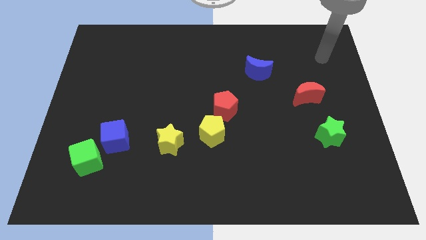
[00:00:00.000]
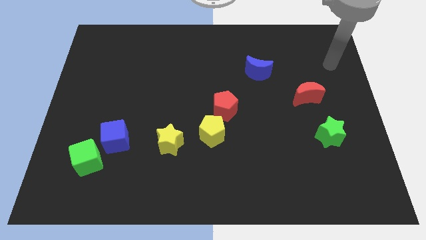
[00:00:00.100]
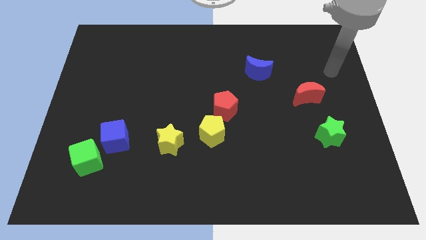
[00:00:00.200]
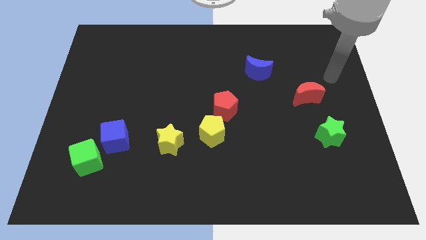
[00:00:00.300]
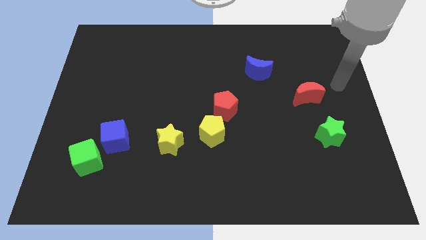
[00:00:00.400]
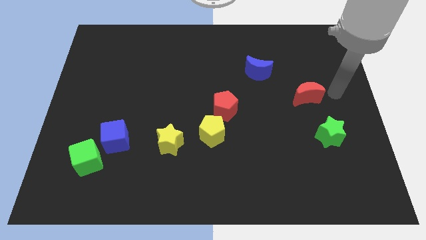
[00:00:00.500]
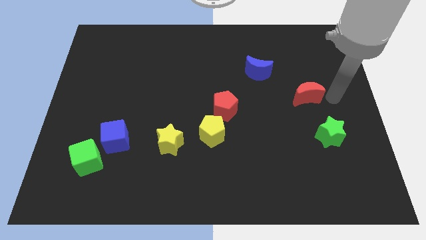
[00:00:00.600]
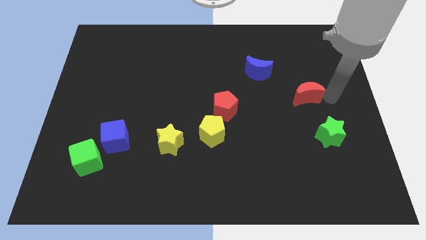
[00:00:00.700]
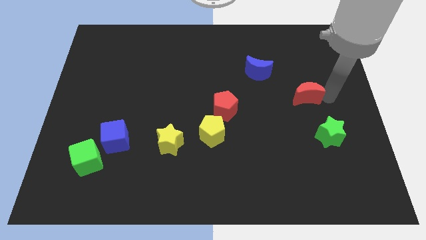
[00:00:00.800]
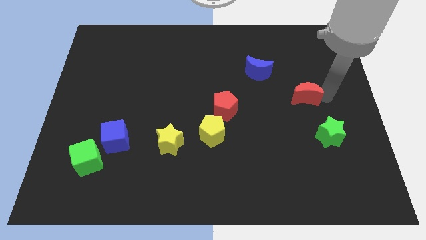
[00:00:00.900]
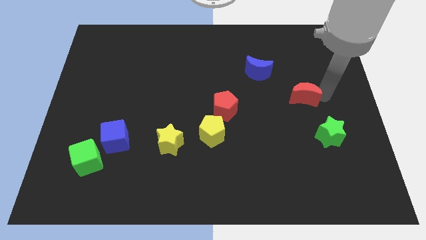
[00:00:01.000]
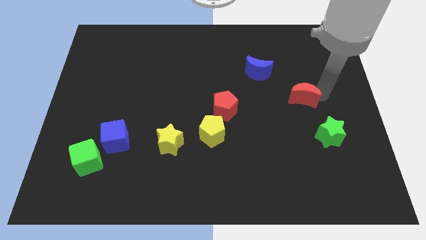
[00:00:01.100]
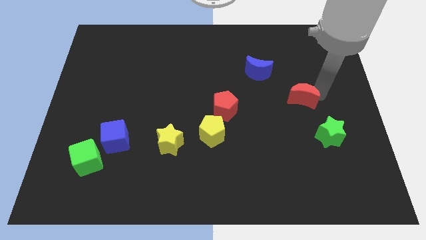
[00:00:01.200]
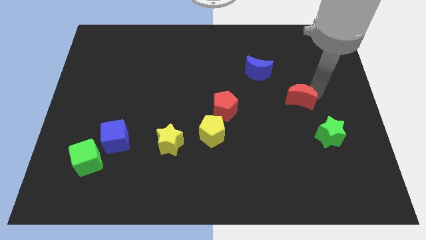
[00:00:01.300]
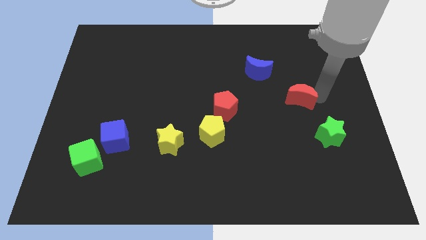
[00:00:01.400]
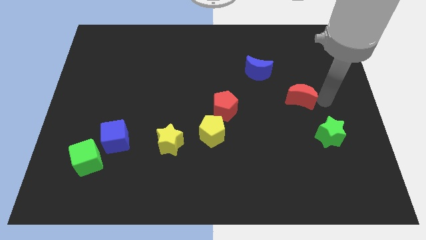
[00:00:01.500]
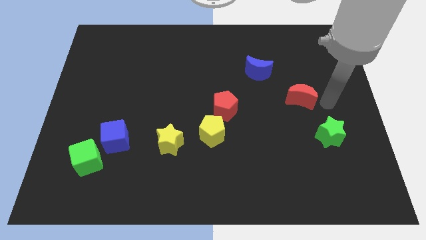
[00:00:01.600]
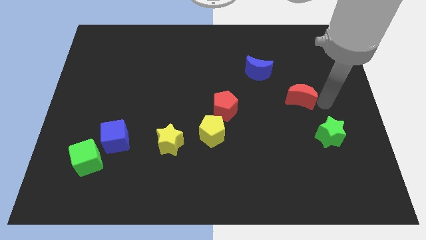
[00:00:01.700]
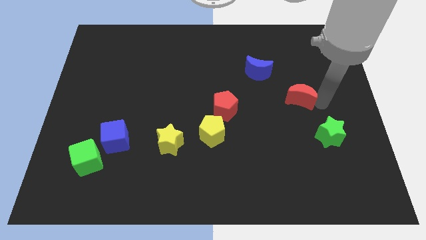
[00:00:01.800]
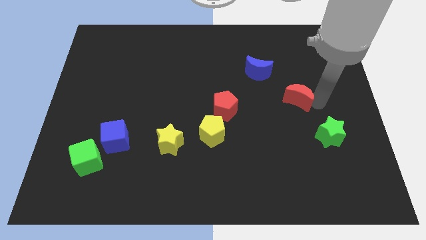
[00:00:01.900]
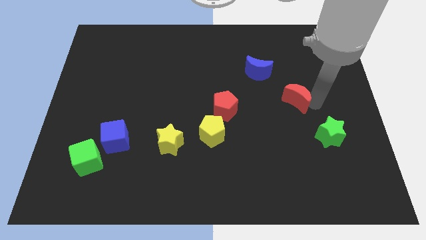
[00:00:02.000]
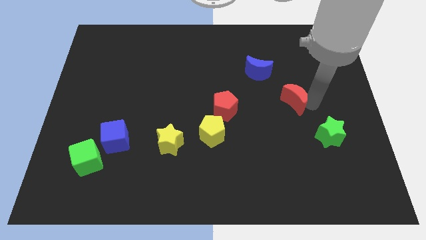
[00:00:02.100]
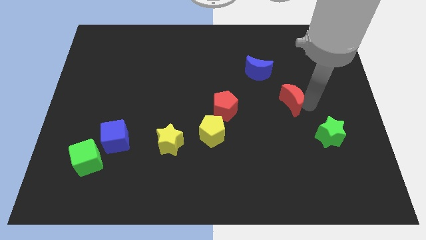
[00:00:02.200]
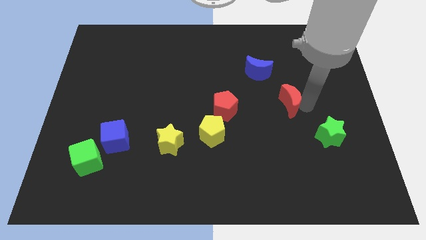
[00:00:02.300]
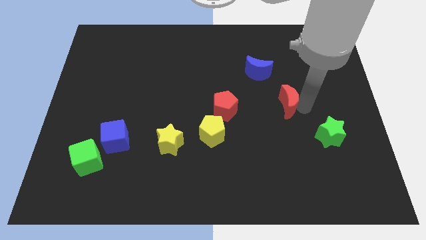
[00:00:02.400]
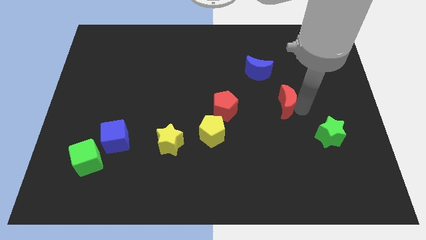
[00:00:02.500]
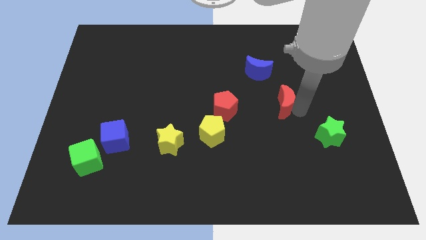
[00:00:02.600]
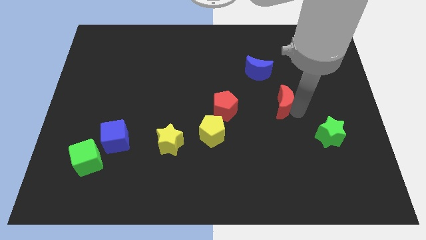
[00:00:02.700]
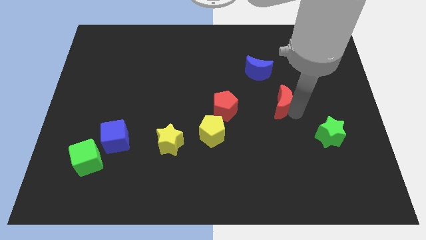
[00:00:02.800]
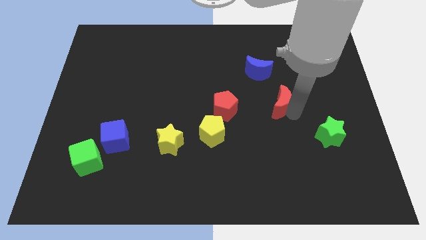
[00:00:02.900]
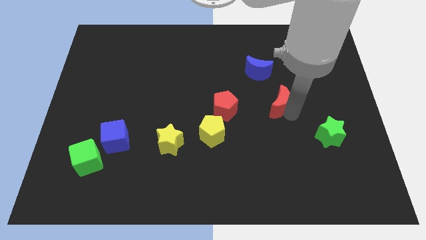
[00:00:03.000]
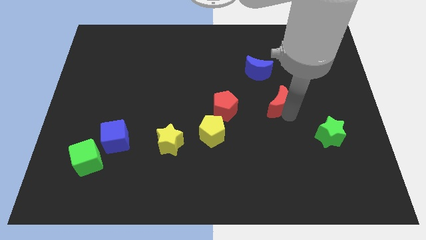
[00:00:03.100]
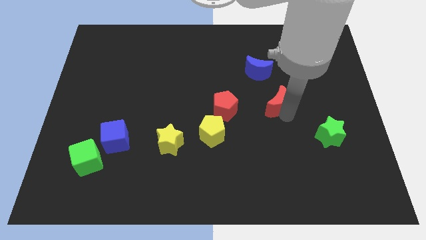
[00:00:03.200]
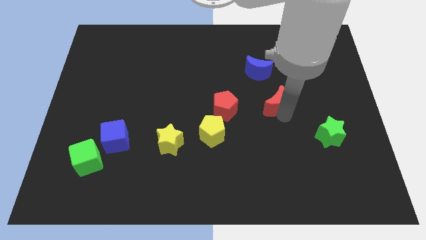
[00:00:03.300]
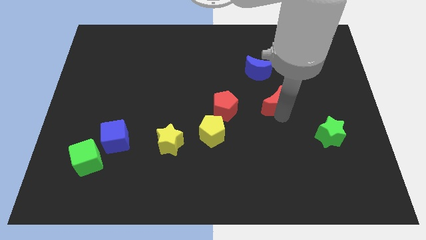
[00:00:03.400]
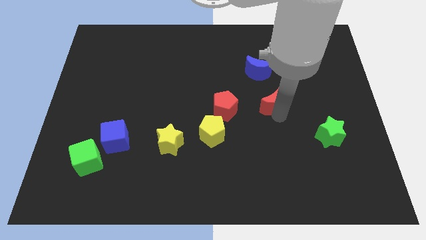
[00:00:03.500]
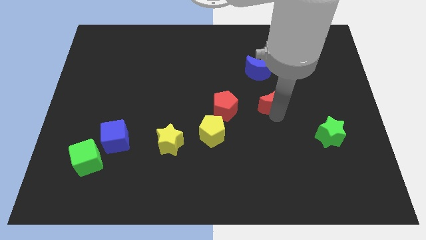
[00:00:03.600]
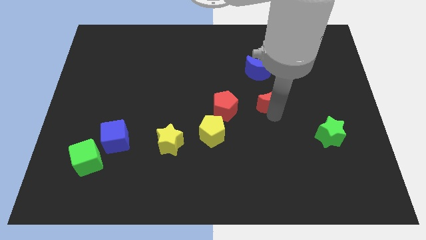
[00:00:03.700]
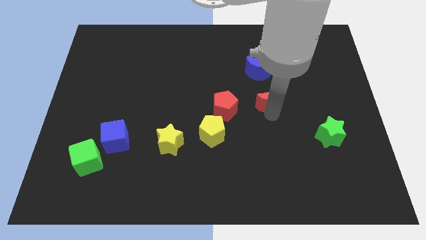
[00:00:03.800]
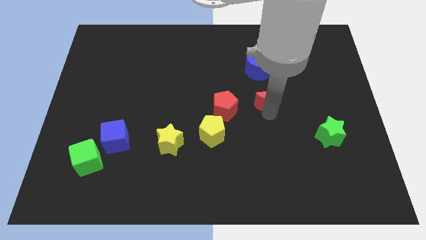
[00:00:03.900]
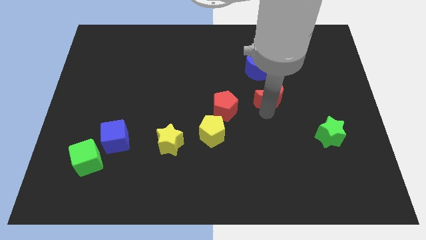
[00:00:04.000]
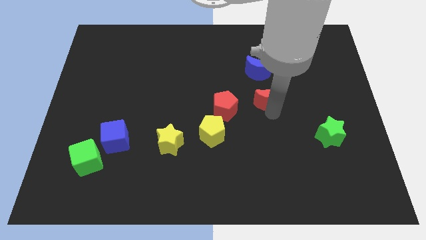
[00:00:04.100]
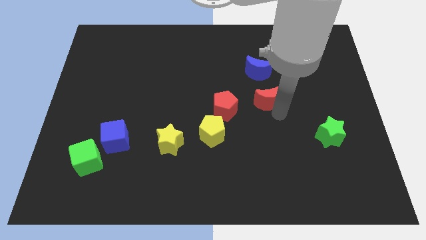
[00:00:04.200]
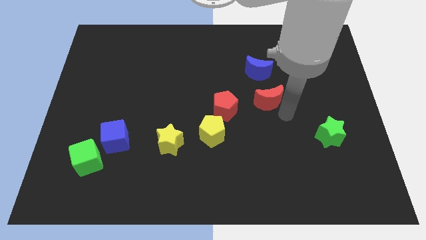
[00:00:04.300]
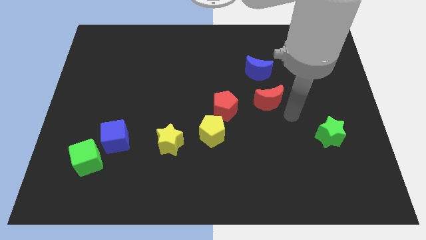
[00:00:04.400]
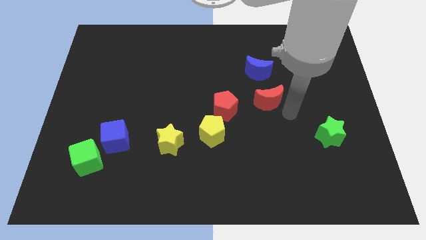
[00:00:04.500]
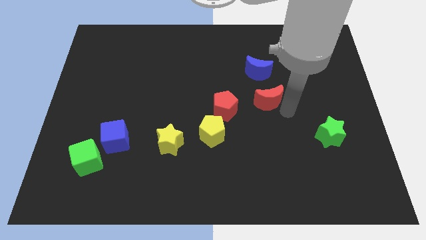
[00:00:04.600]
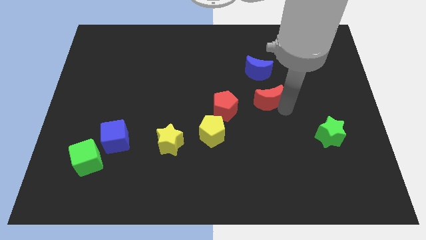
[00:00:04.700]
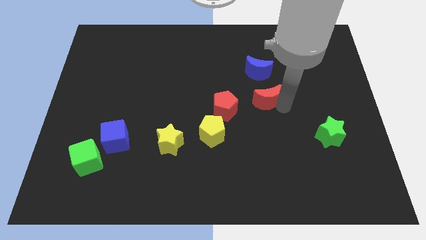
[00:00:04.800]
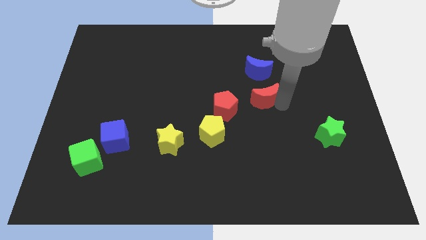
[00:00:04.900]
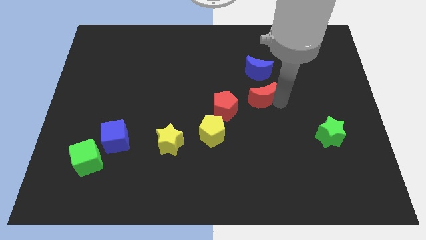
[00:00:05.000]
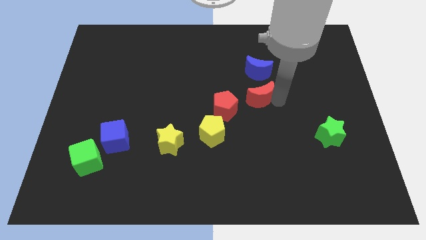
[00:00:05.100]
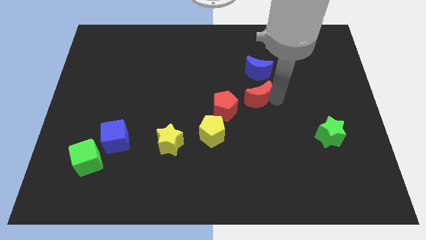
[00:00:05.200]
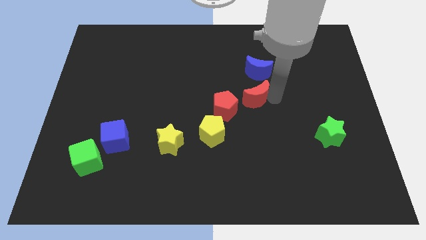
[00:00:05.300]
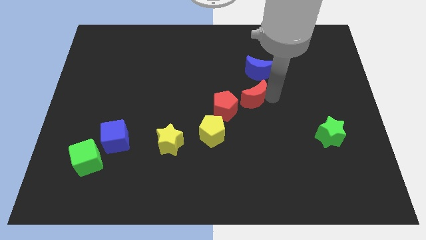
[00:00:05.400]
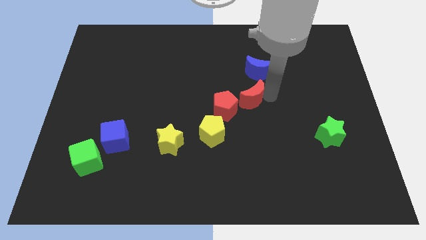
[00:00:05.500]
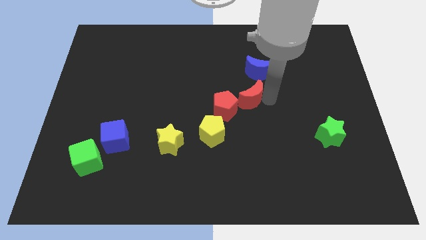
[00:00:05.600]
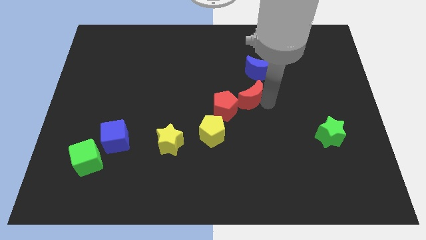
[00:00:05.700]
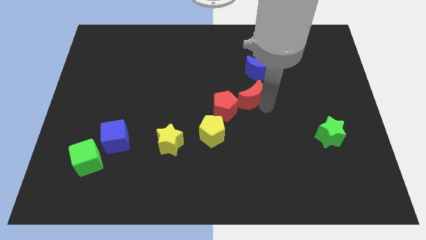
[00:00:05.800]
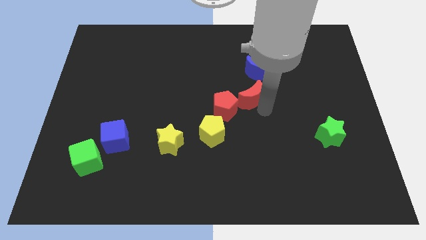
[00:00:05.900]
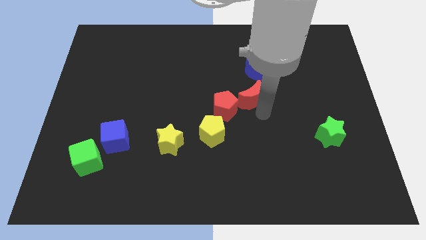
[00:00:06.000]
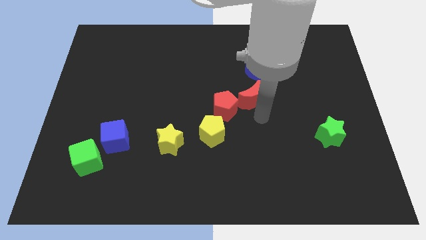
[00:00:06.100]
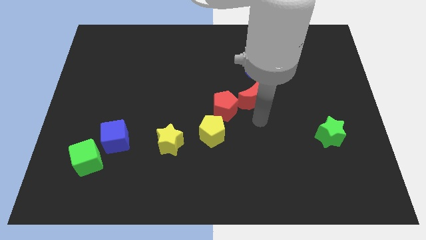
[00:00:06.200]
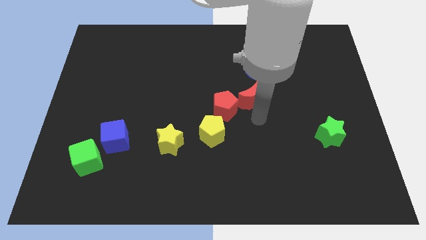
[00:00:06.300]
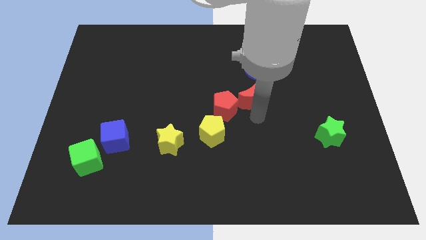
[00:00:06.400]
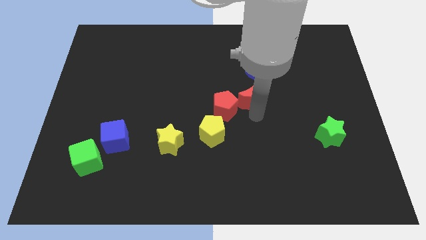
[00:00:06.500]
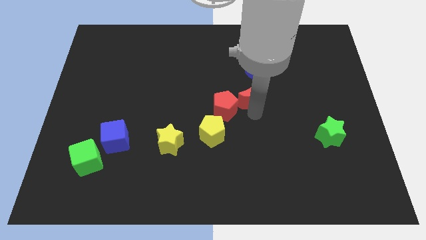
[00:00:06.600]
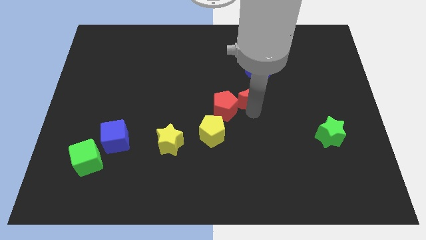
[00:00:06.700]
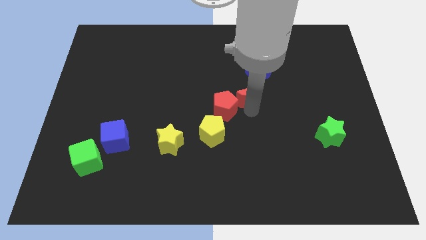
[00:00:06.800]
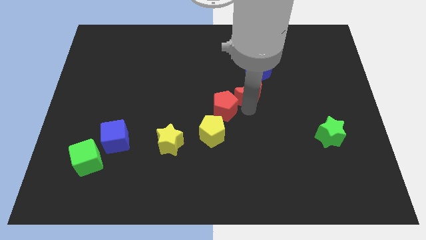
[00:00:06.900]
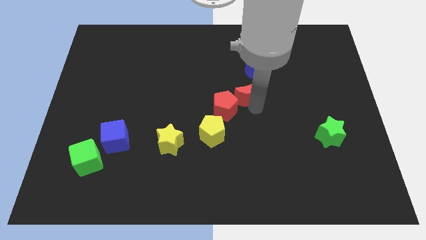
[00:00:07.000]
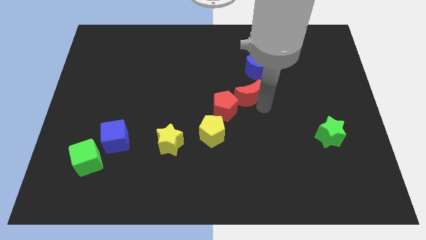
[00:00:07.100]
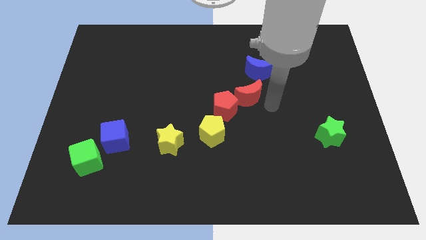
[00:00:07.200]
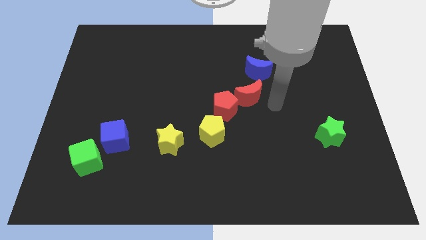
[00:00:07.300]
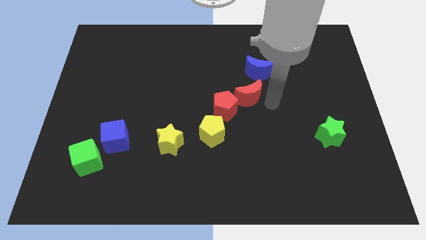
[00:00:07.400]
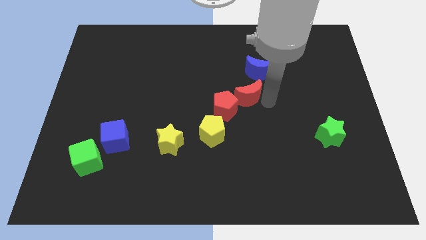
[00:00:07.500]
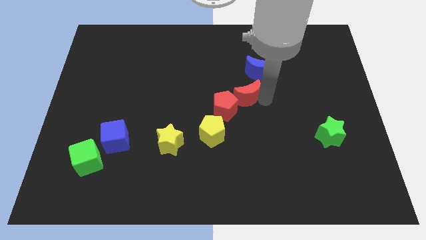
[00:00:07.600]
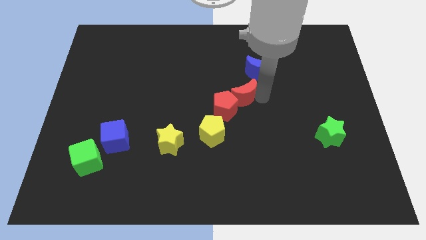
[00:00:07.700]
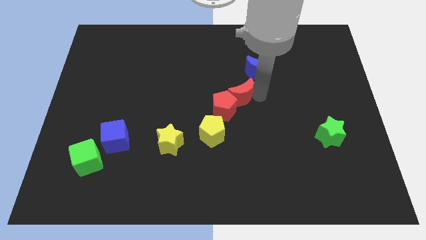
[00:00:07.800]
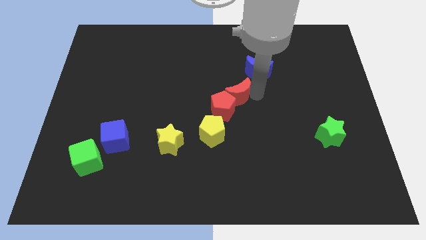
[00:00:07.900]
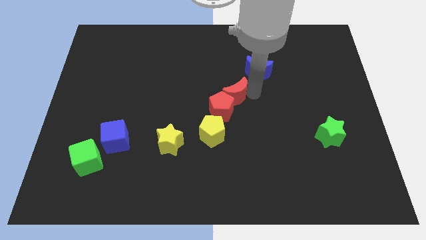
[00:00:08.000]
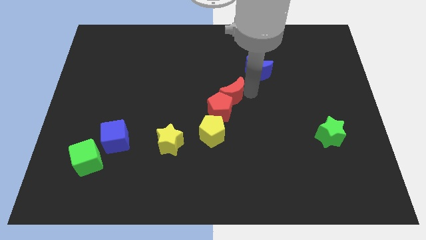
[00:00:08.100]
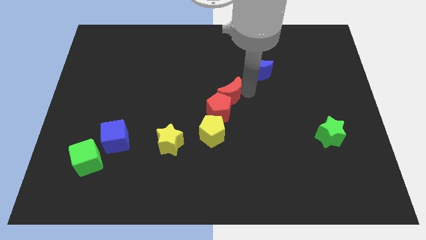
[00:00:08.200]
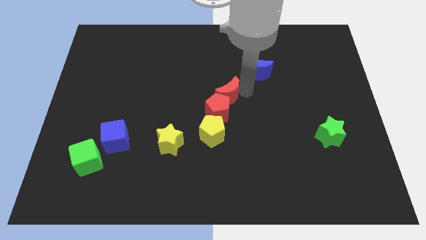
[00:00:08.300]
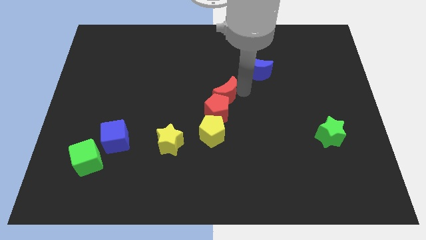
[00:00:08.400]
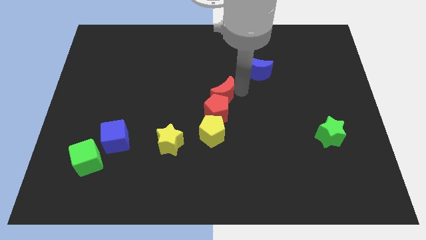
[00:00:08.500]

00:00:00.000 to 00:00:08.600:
push the red moon left
